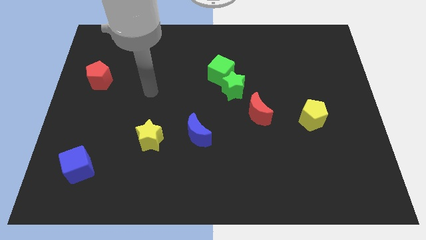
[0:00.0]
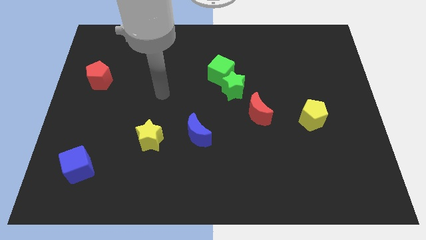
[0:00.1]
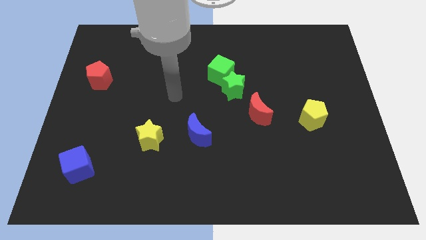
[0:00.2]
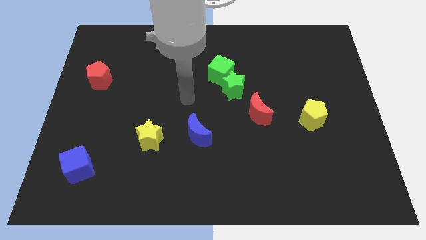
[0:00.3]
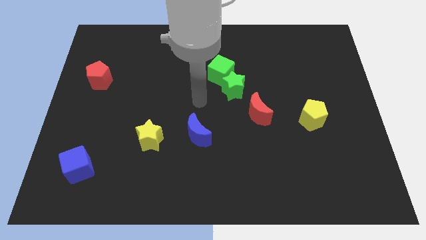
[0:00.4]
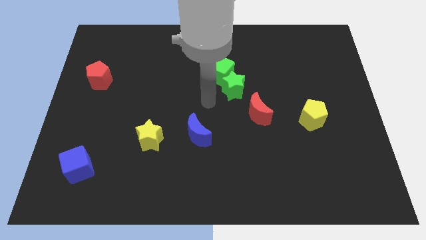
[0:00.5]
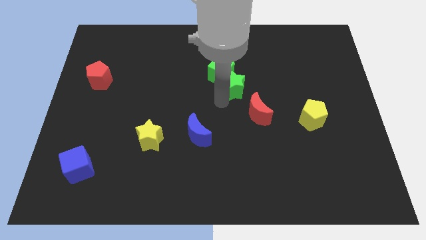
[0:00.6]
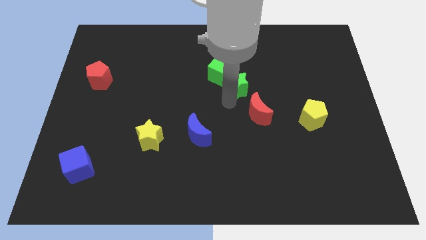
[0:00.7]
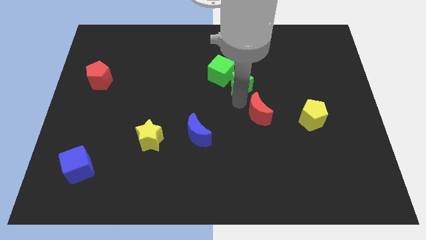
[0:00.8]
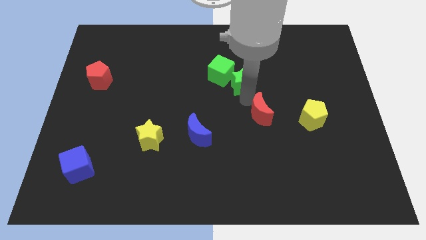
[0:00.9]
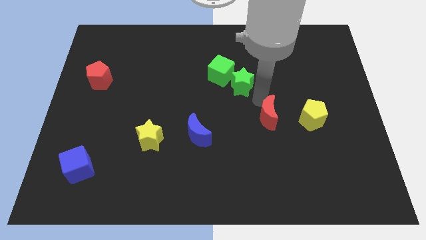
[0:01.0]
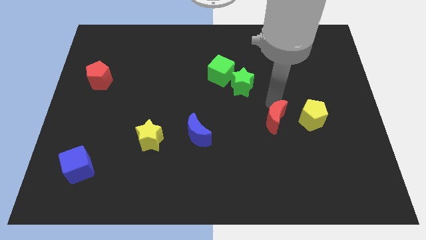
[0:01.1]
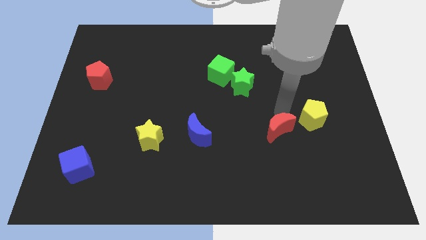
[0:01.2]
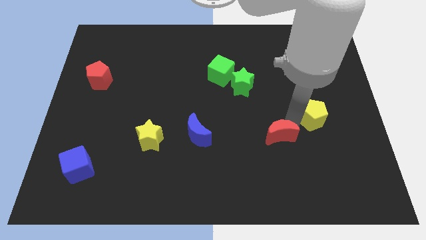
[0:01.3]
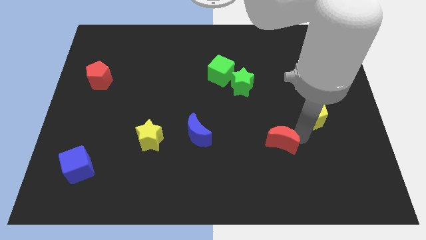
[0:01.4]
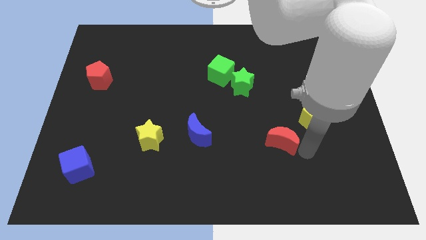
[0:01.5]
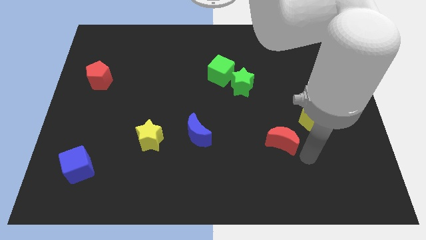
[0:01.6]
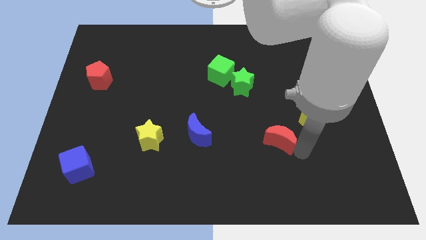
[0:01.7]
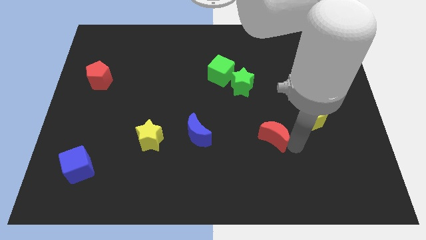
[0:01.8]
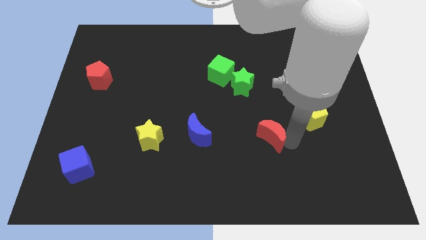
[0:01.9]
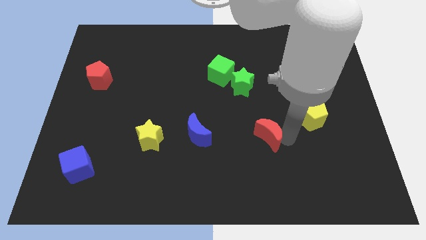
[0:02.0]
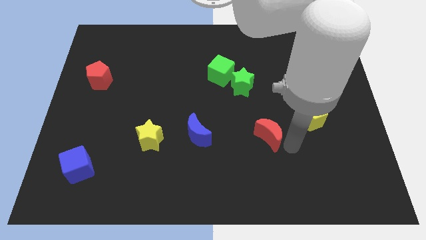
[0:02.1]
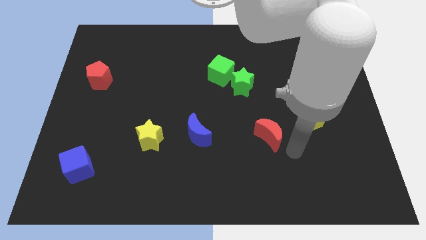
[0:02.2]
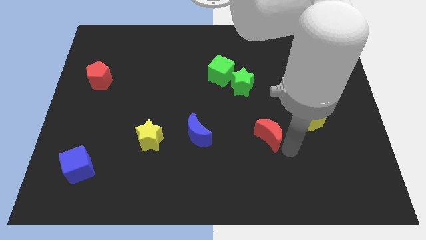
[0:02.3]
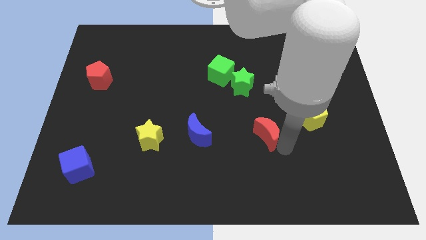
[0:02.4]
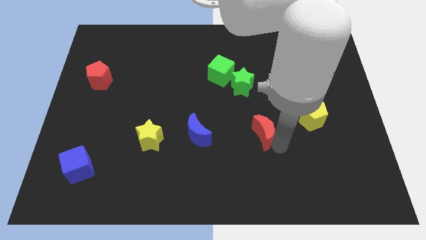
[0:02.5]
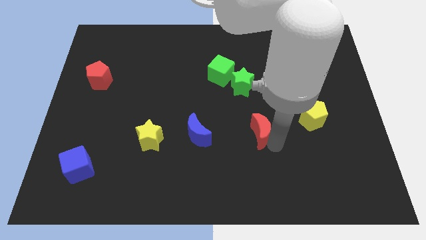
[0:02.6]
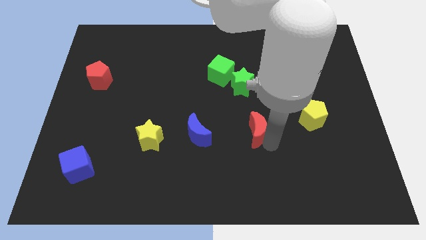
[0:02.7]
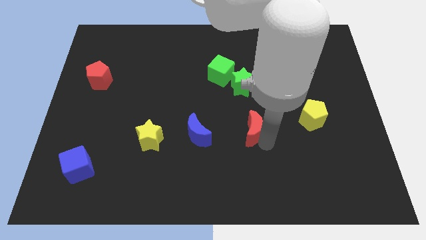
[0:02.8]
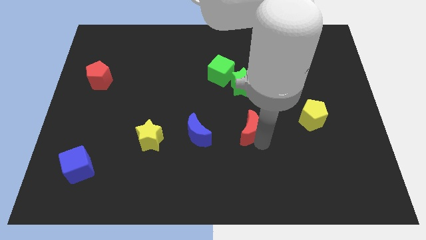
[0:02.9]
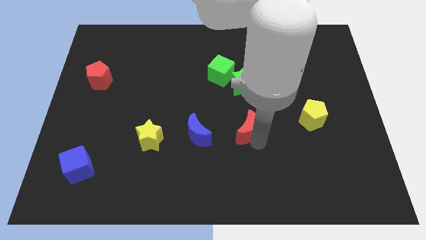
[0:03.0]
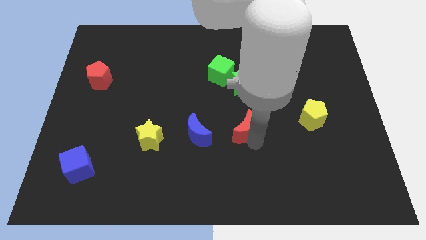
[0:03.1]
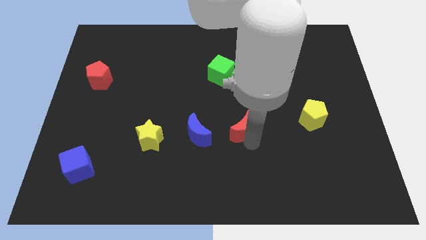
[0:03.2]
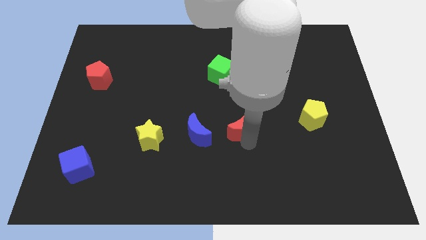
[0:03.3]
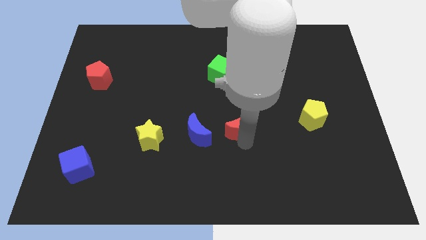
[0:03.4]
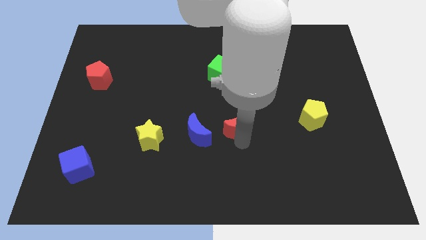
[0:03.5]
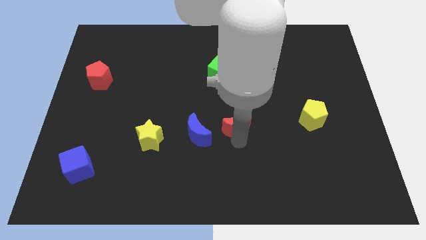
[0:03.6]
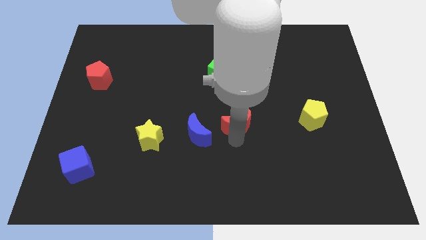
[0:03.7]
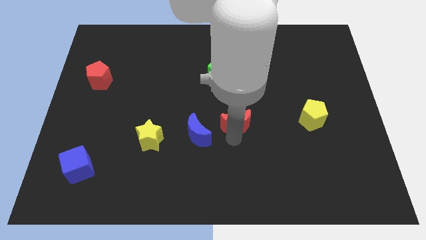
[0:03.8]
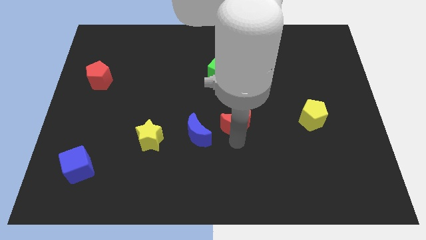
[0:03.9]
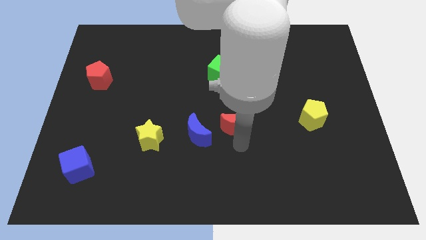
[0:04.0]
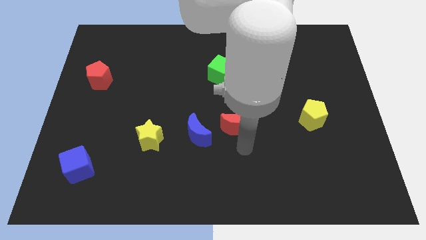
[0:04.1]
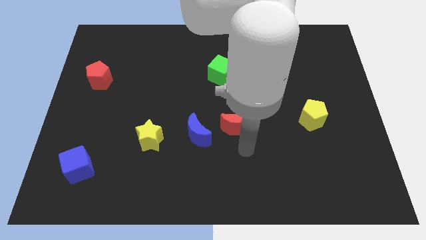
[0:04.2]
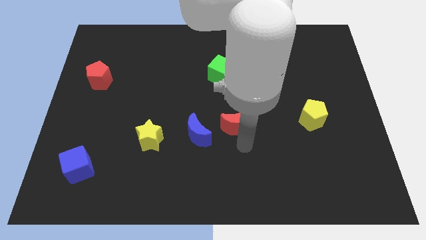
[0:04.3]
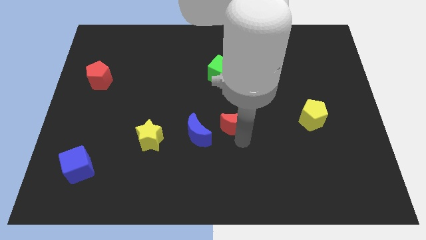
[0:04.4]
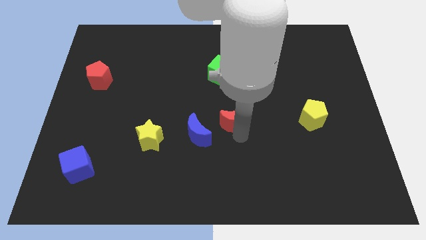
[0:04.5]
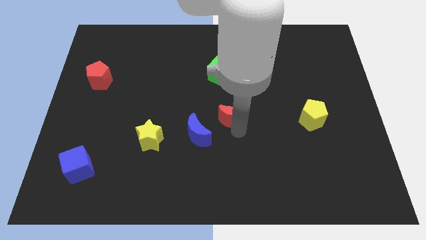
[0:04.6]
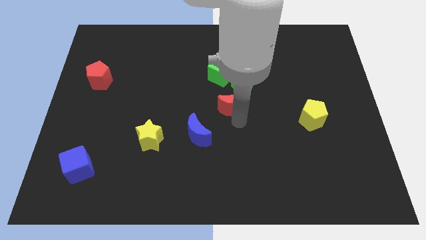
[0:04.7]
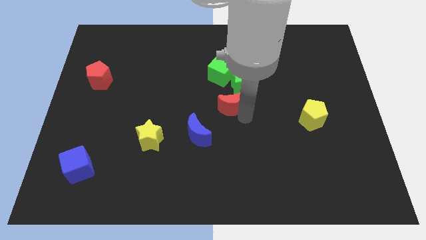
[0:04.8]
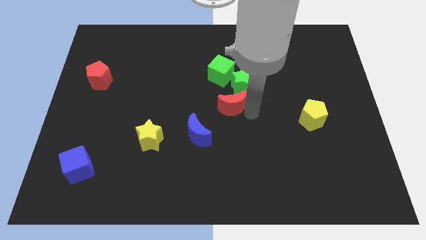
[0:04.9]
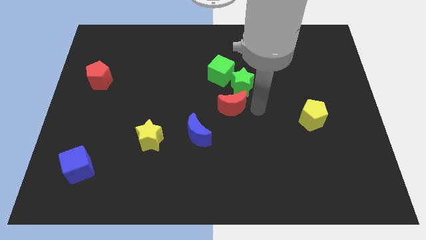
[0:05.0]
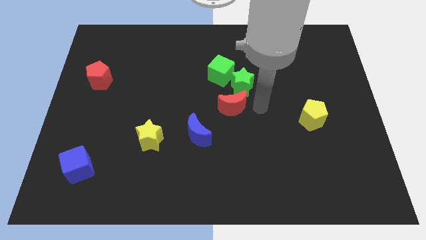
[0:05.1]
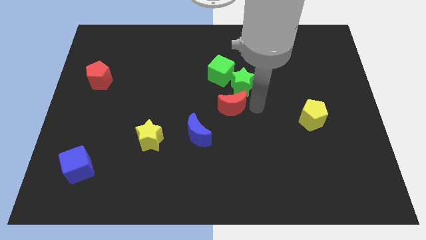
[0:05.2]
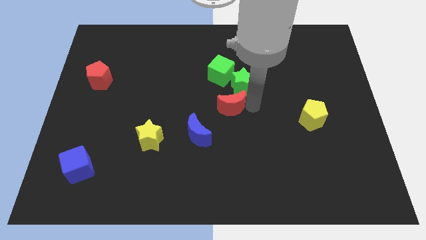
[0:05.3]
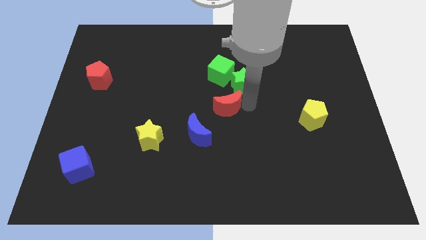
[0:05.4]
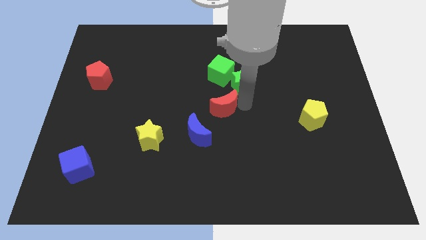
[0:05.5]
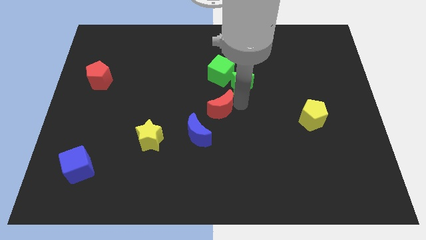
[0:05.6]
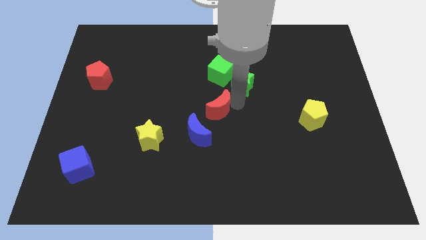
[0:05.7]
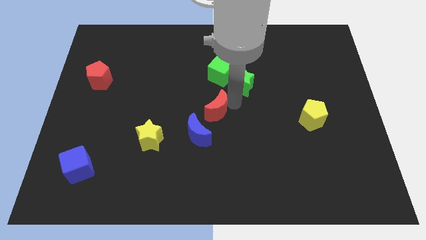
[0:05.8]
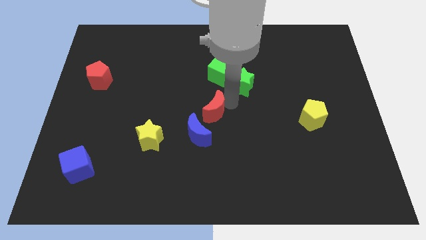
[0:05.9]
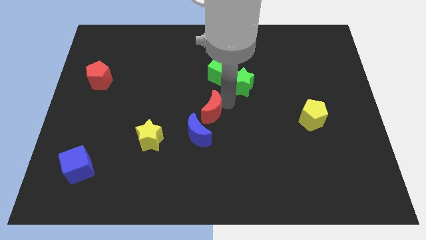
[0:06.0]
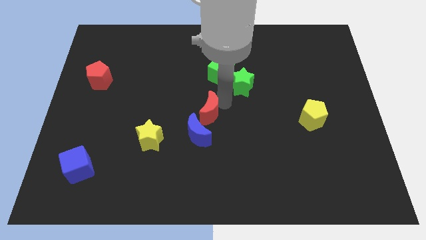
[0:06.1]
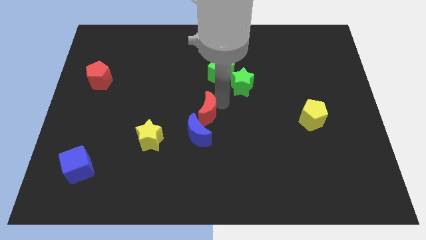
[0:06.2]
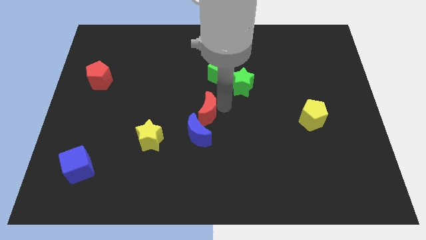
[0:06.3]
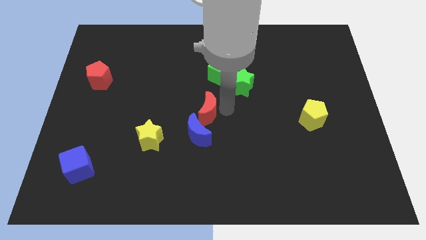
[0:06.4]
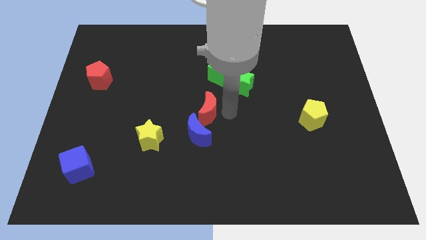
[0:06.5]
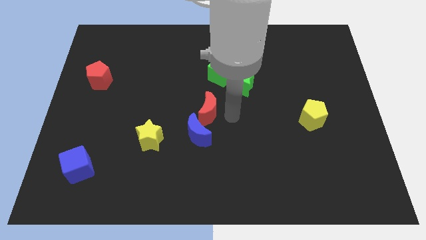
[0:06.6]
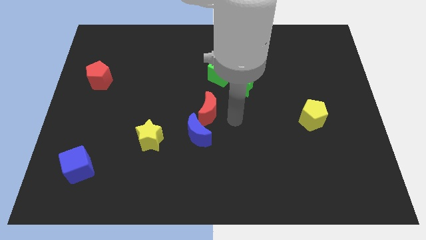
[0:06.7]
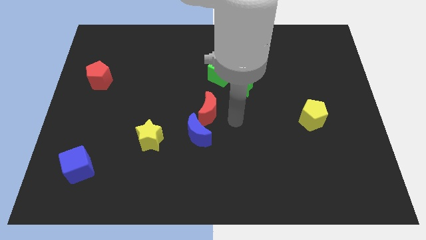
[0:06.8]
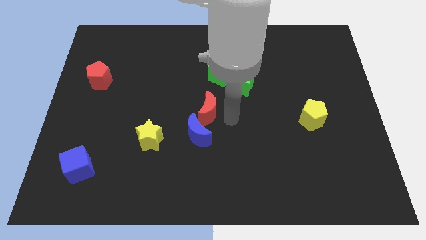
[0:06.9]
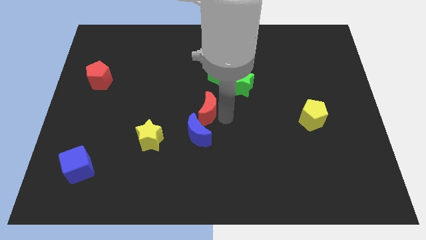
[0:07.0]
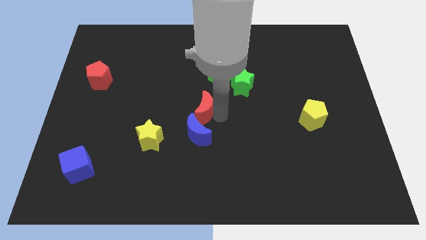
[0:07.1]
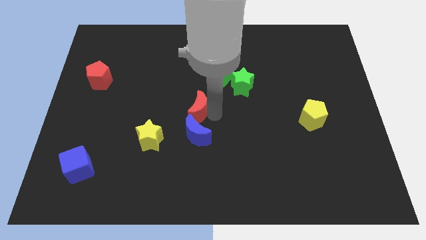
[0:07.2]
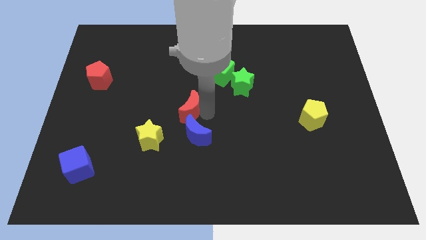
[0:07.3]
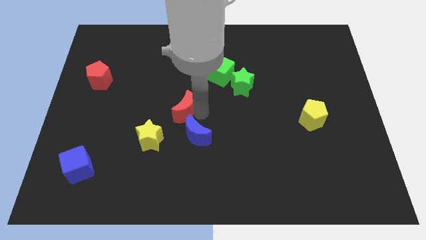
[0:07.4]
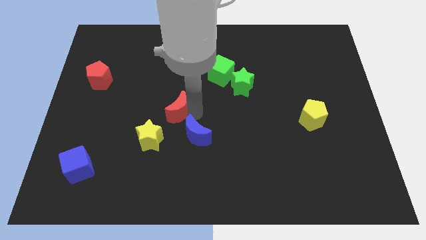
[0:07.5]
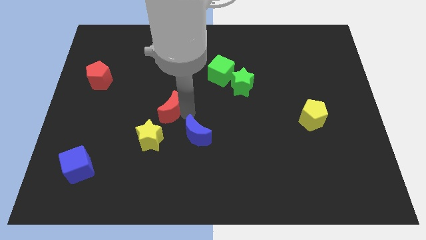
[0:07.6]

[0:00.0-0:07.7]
move the red moon above the yellow star
